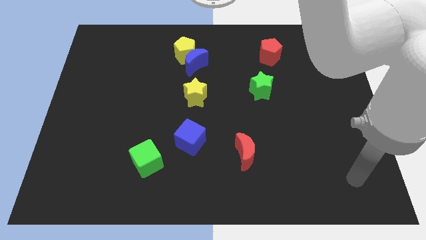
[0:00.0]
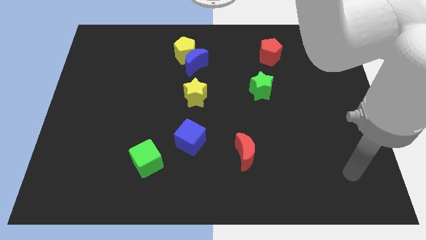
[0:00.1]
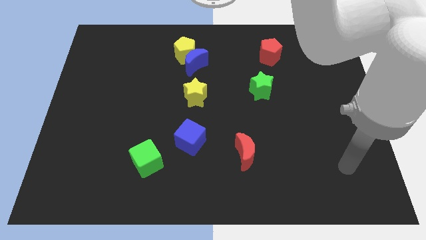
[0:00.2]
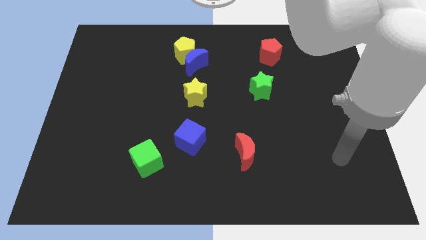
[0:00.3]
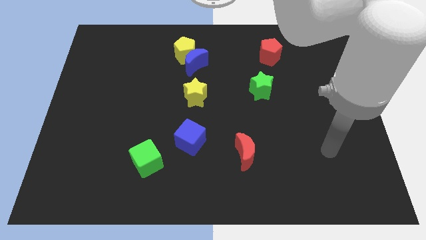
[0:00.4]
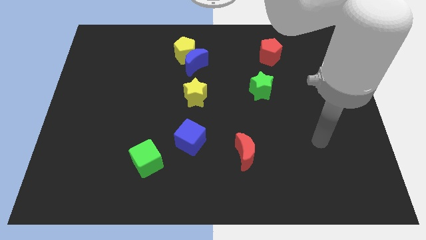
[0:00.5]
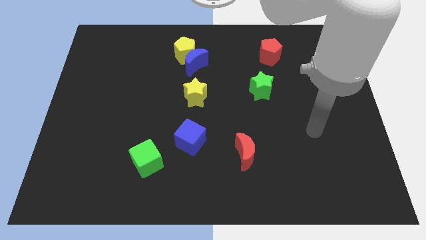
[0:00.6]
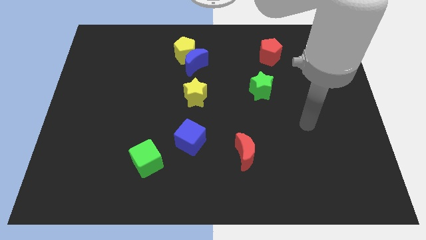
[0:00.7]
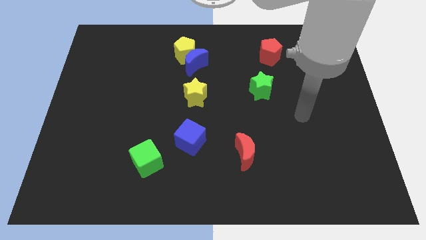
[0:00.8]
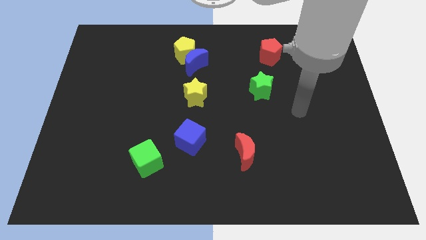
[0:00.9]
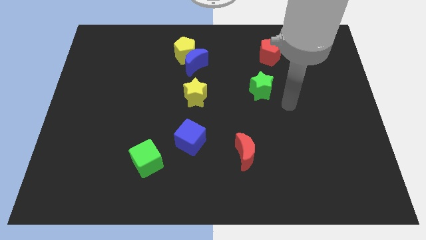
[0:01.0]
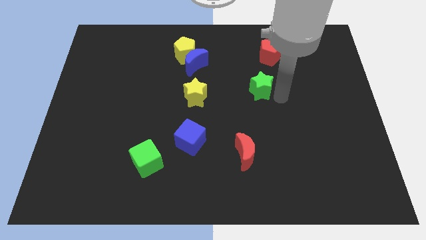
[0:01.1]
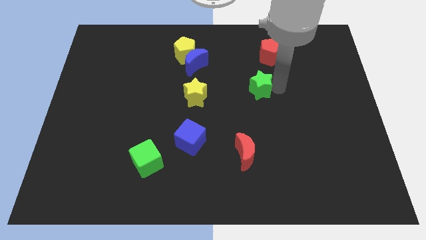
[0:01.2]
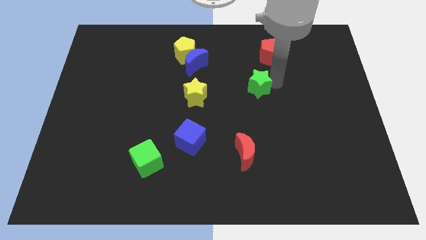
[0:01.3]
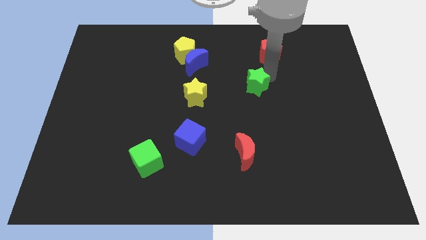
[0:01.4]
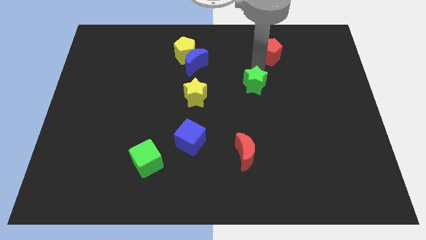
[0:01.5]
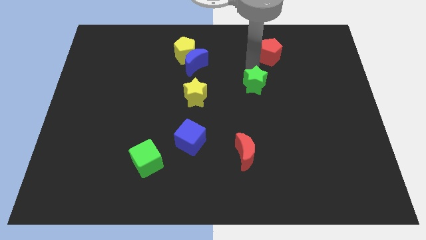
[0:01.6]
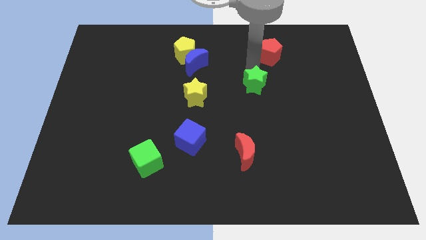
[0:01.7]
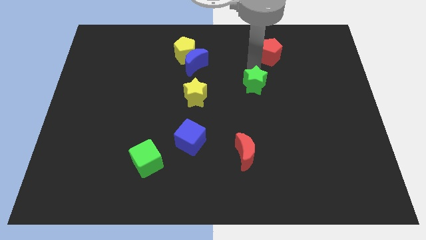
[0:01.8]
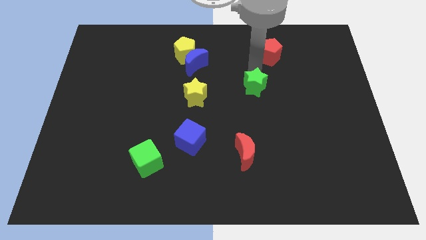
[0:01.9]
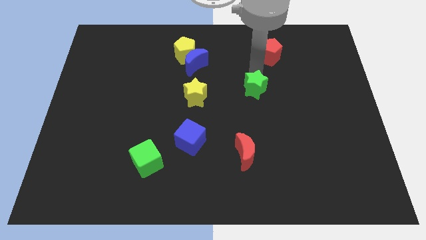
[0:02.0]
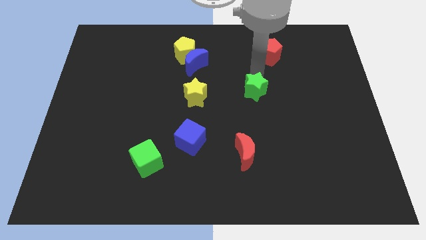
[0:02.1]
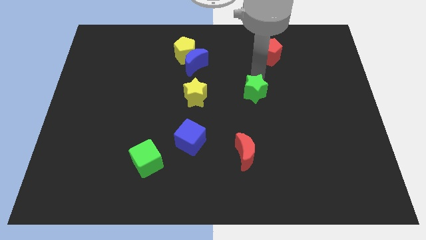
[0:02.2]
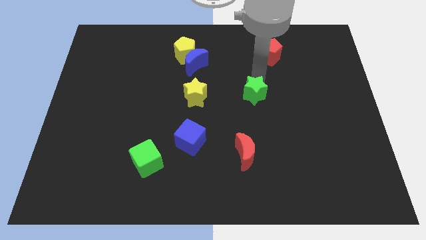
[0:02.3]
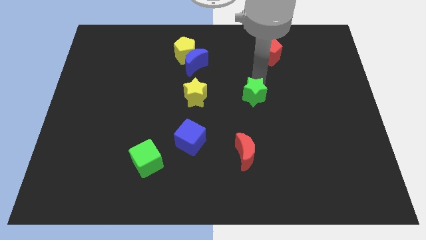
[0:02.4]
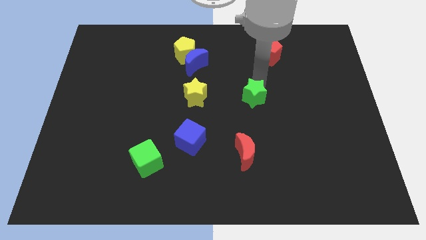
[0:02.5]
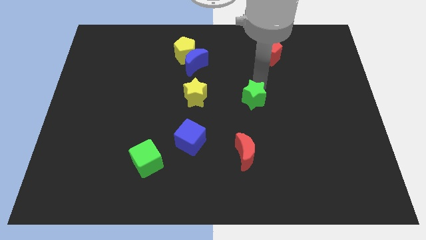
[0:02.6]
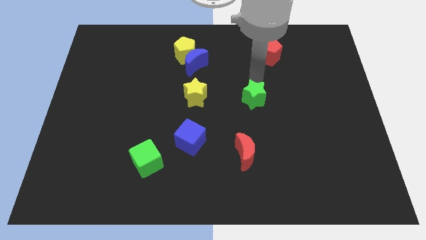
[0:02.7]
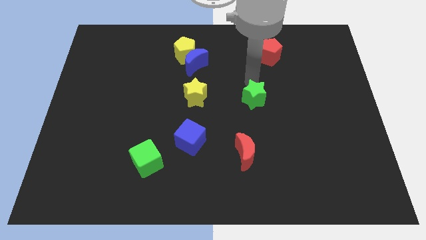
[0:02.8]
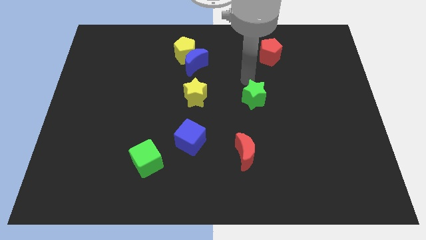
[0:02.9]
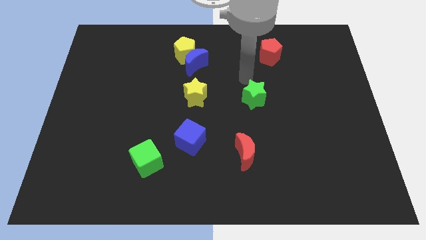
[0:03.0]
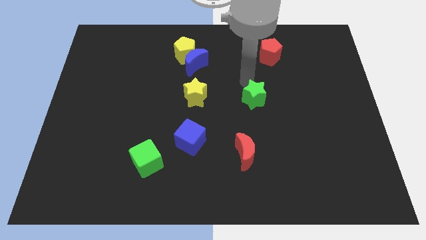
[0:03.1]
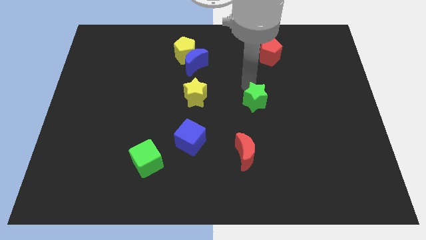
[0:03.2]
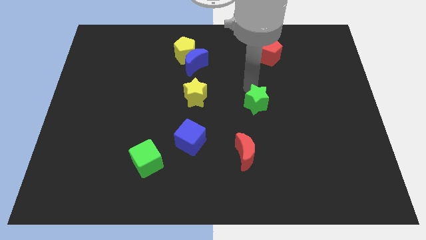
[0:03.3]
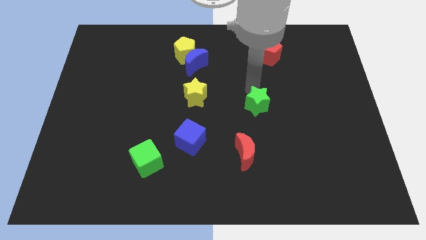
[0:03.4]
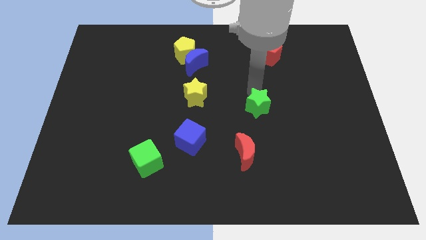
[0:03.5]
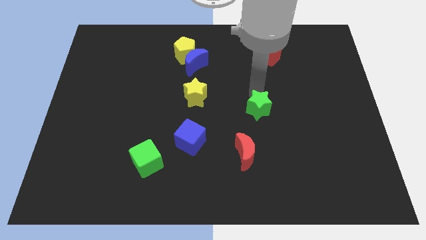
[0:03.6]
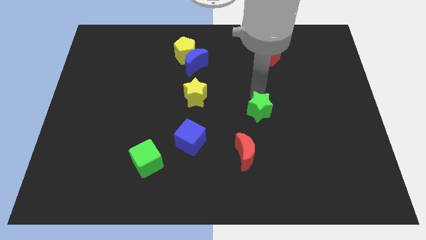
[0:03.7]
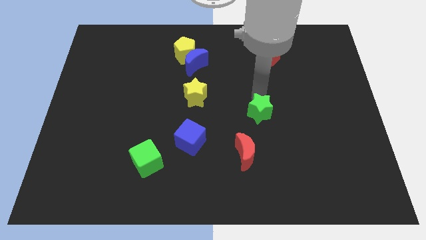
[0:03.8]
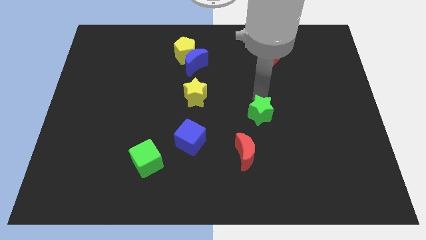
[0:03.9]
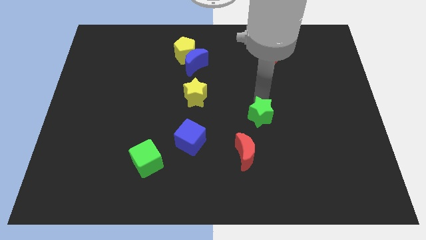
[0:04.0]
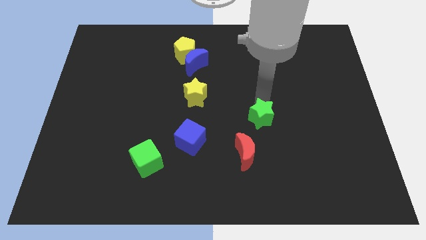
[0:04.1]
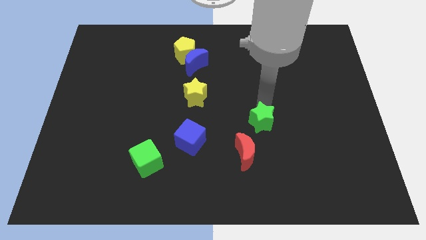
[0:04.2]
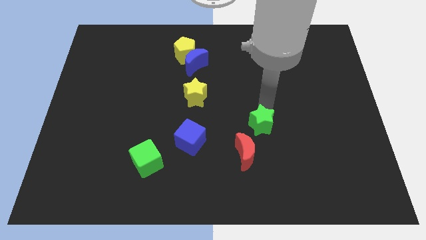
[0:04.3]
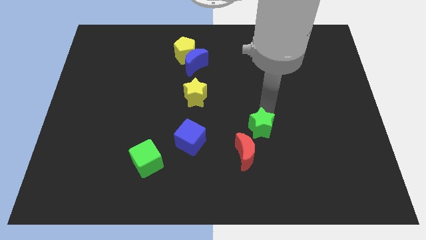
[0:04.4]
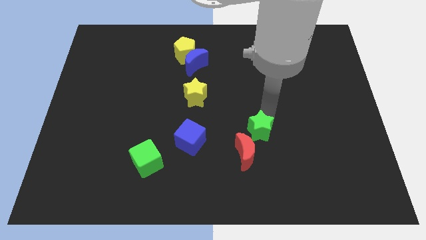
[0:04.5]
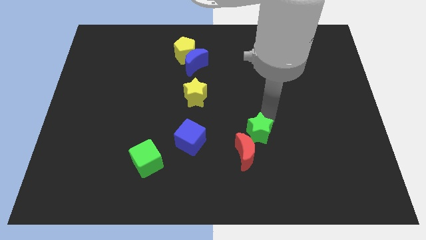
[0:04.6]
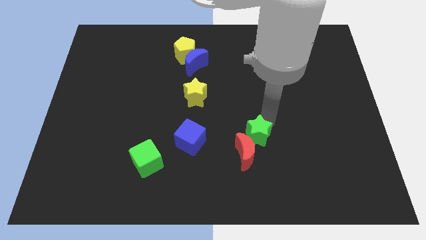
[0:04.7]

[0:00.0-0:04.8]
move the green star to the red moon

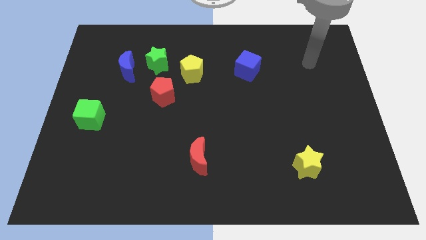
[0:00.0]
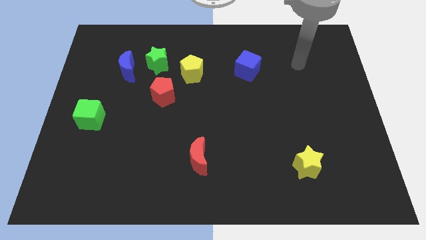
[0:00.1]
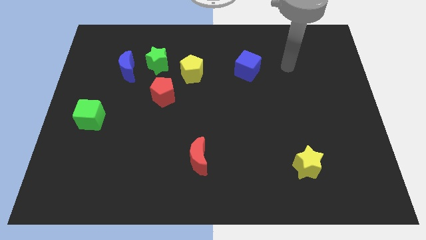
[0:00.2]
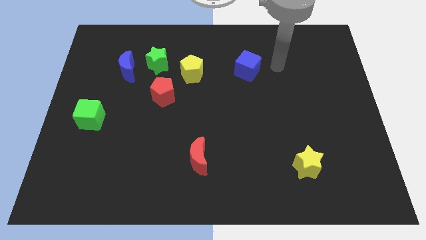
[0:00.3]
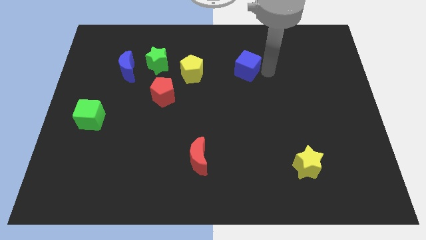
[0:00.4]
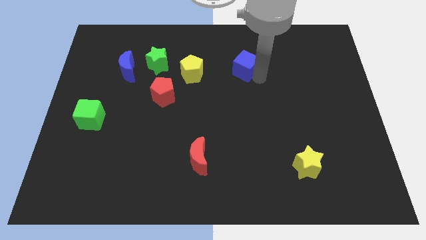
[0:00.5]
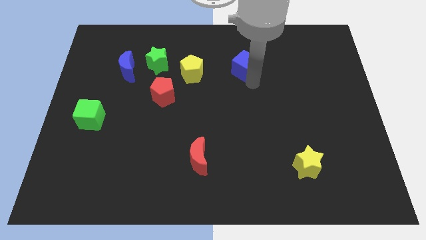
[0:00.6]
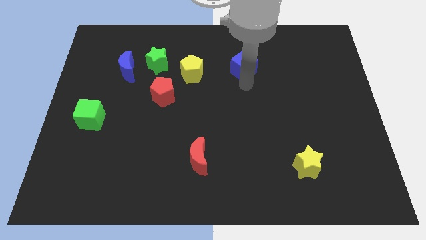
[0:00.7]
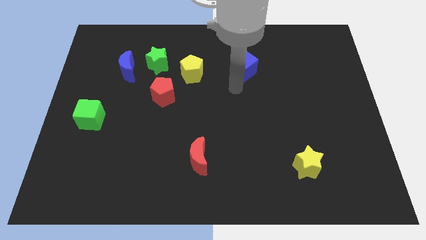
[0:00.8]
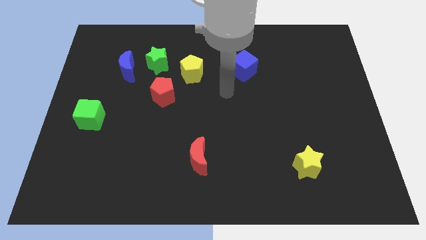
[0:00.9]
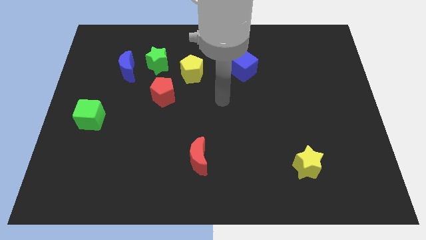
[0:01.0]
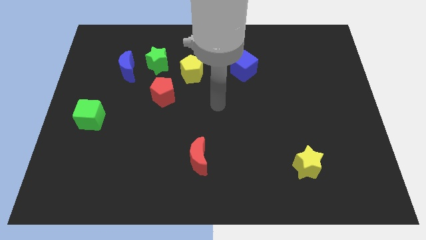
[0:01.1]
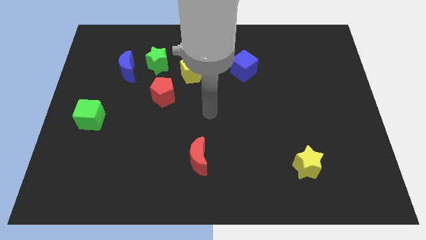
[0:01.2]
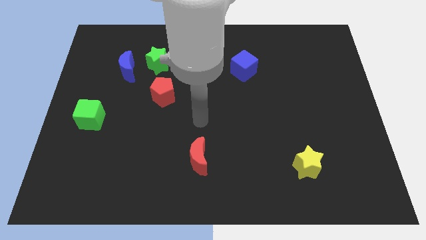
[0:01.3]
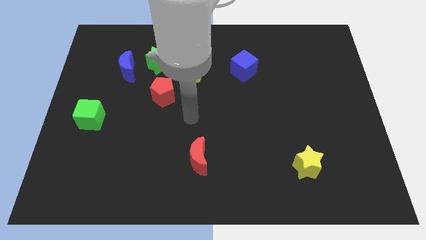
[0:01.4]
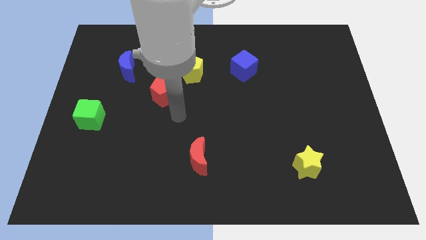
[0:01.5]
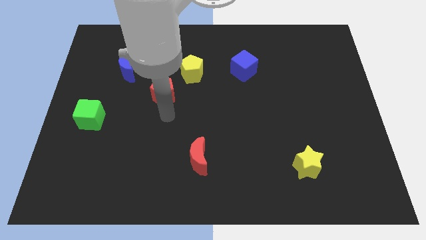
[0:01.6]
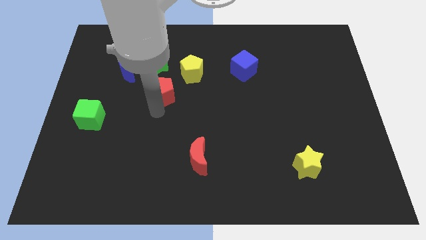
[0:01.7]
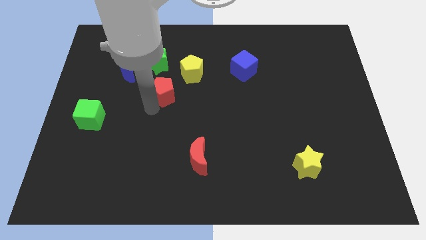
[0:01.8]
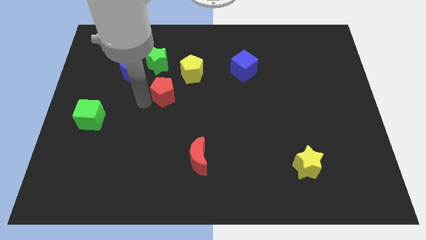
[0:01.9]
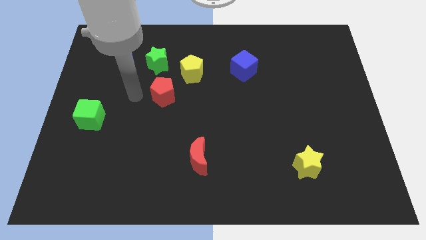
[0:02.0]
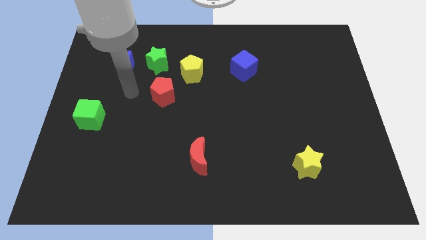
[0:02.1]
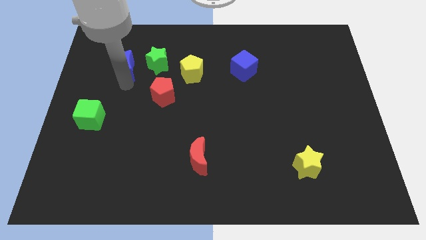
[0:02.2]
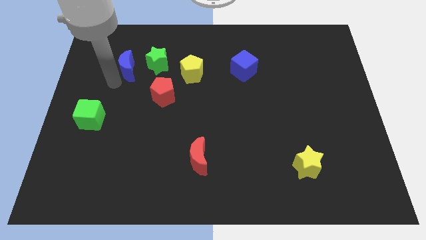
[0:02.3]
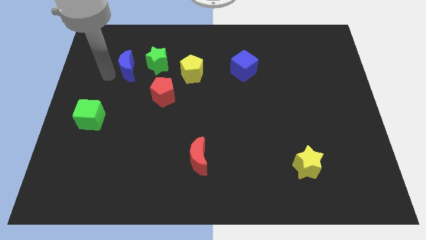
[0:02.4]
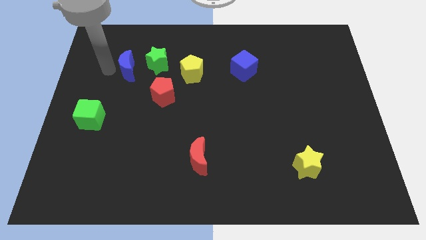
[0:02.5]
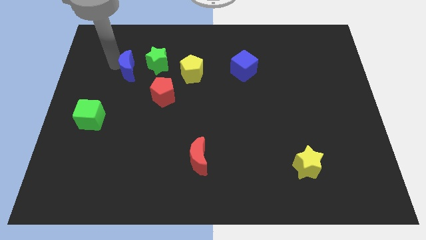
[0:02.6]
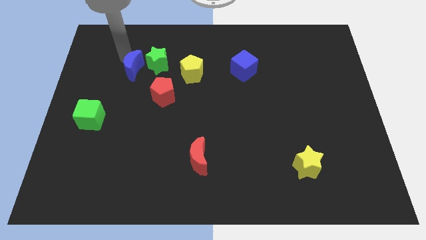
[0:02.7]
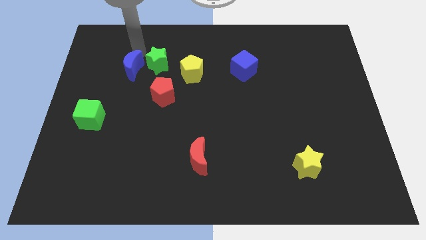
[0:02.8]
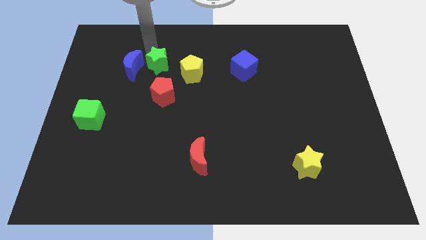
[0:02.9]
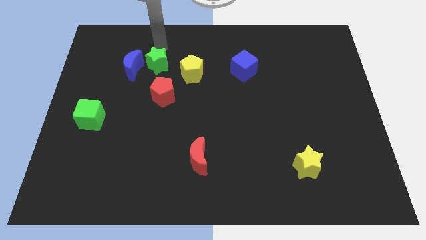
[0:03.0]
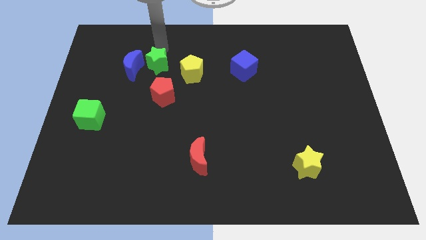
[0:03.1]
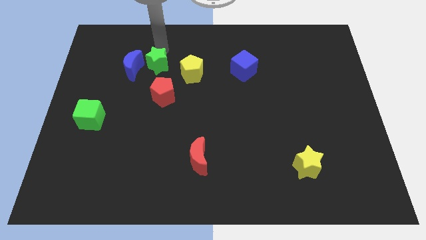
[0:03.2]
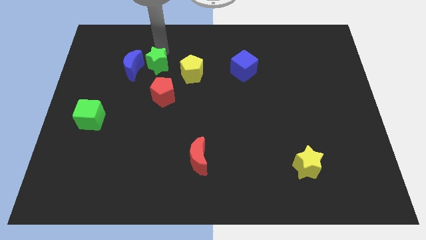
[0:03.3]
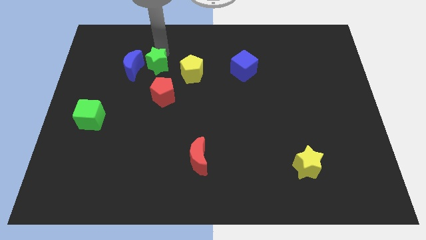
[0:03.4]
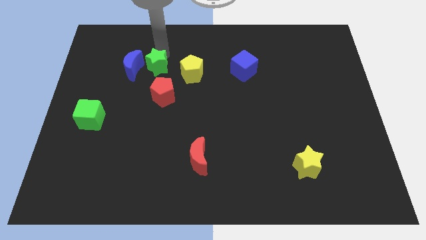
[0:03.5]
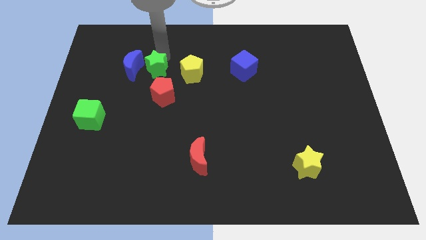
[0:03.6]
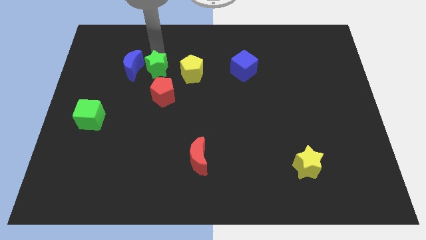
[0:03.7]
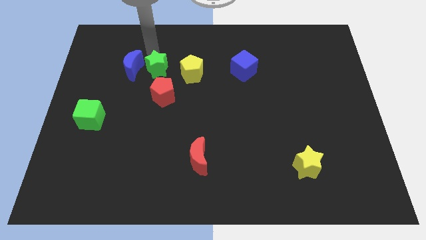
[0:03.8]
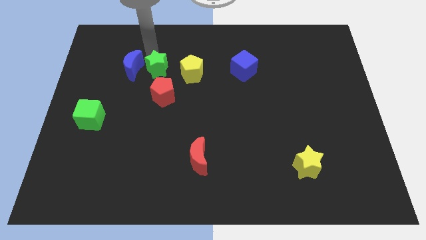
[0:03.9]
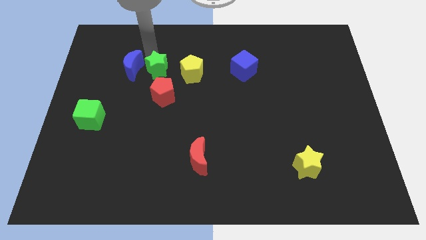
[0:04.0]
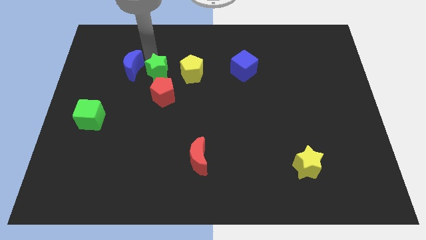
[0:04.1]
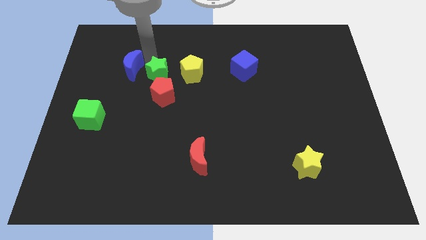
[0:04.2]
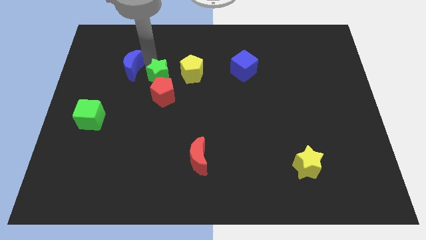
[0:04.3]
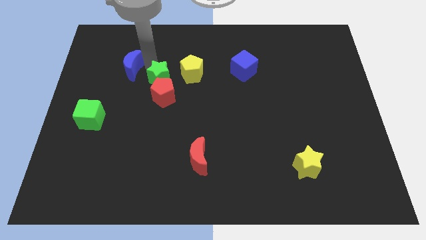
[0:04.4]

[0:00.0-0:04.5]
put the green star next to the red pentagon
